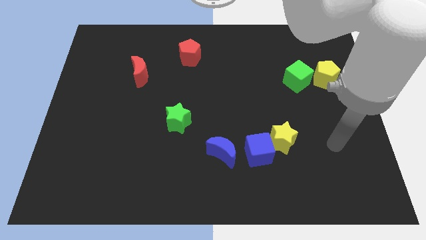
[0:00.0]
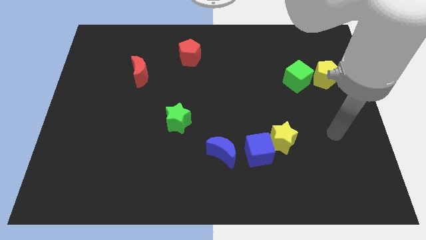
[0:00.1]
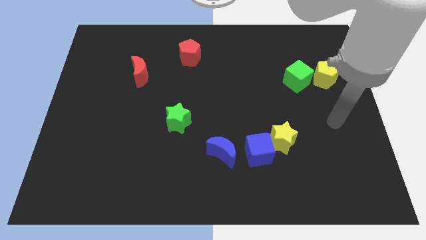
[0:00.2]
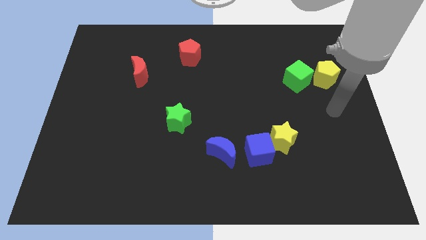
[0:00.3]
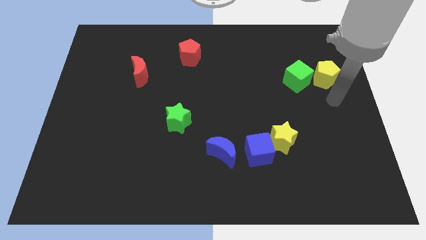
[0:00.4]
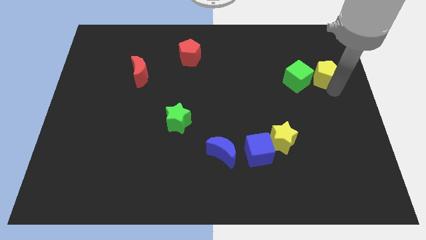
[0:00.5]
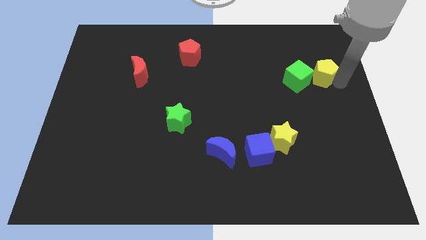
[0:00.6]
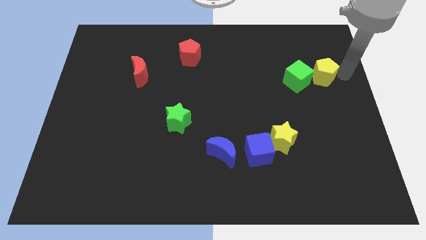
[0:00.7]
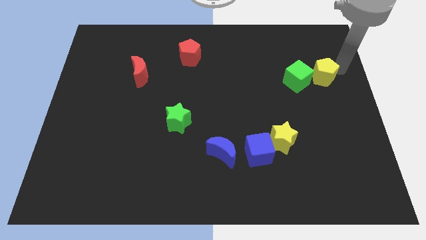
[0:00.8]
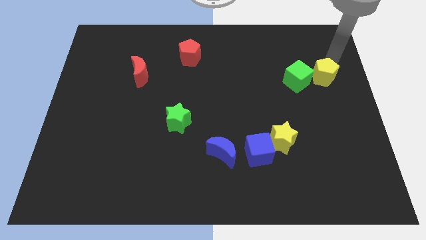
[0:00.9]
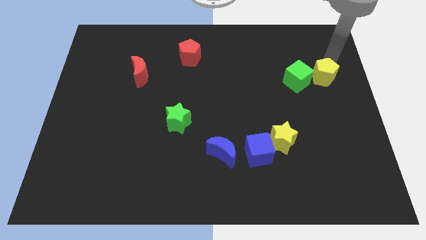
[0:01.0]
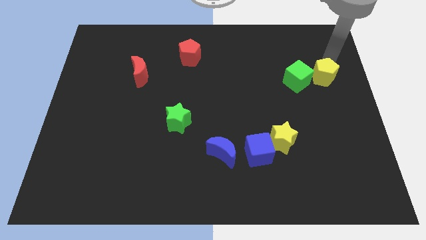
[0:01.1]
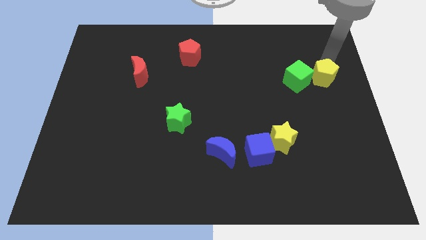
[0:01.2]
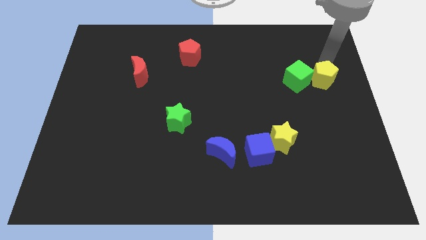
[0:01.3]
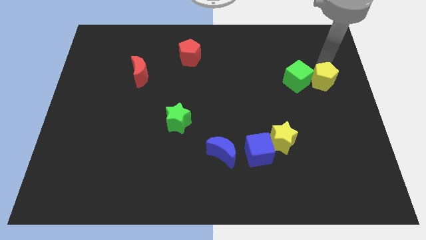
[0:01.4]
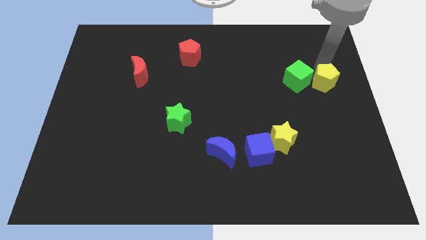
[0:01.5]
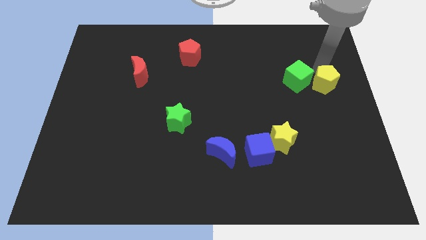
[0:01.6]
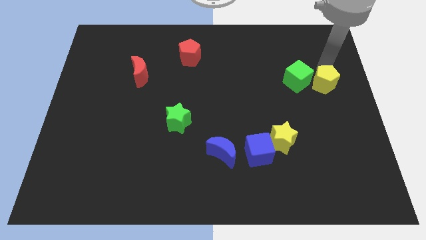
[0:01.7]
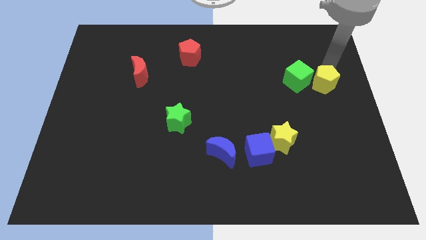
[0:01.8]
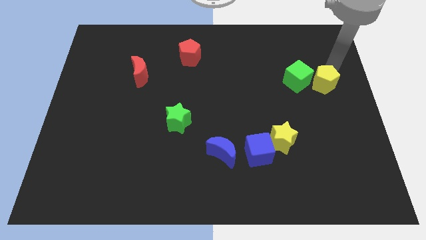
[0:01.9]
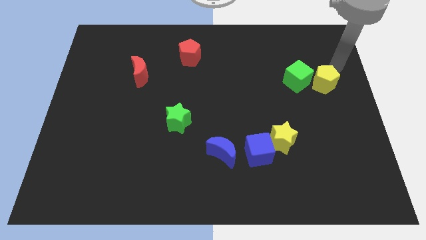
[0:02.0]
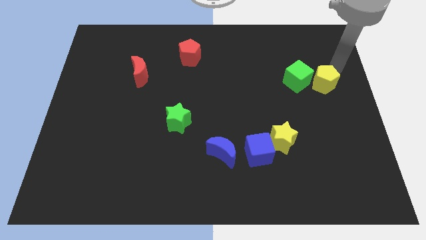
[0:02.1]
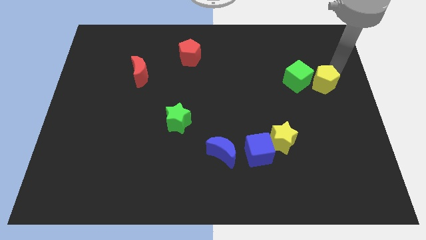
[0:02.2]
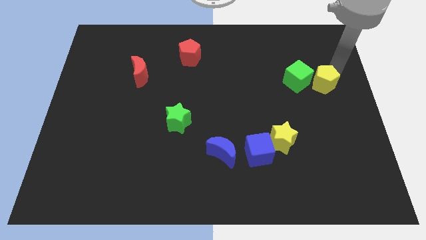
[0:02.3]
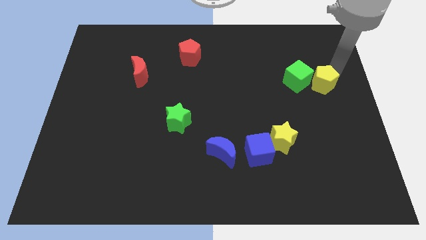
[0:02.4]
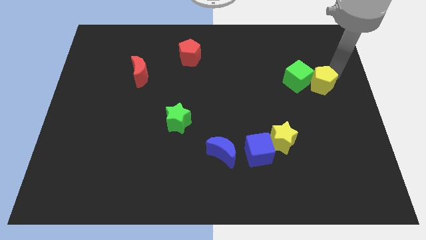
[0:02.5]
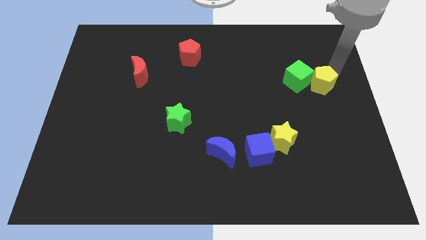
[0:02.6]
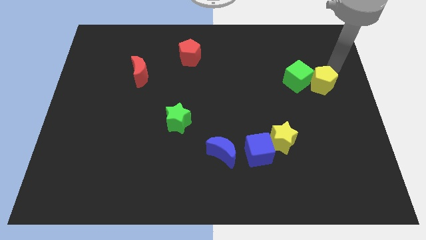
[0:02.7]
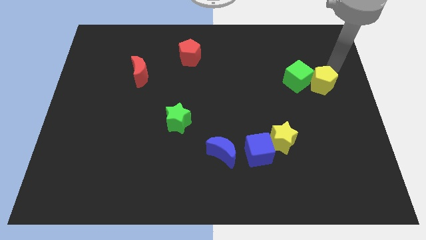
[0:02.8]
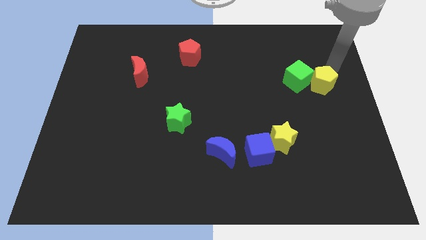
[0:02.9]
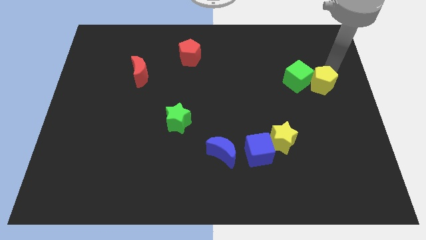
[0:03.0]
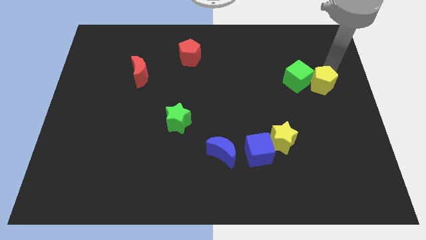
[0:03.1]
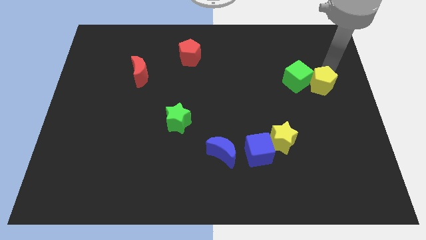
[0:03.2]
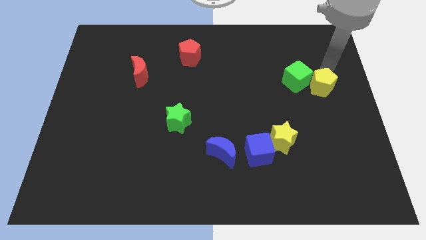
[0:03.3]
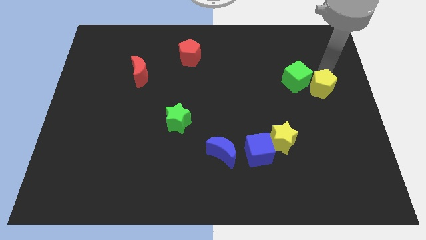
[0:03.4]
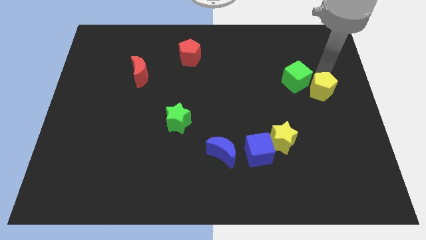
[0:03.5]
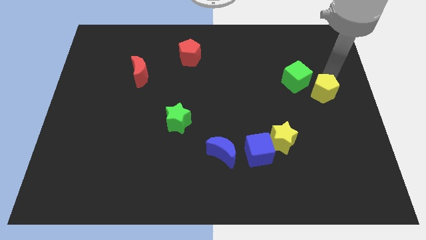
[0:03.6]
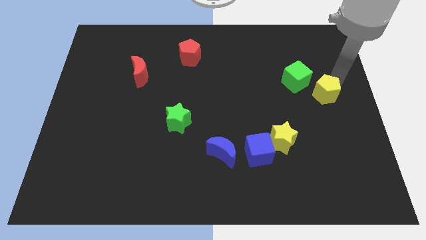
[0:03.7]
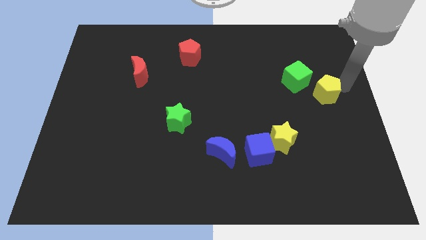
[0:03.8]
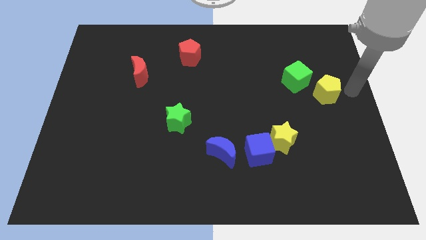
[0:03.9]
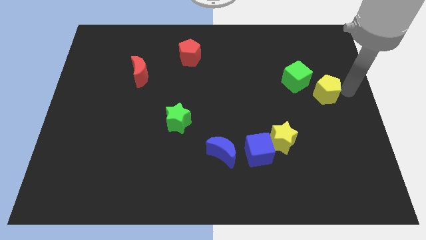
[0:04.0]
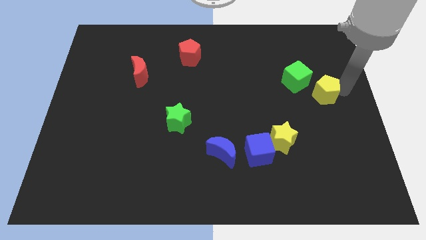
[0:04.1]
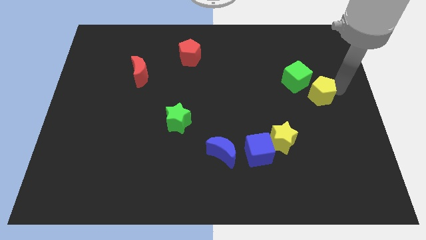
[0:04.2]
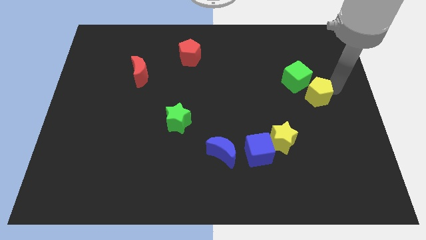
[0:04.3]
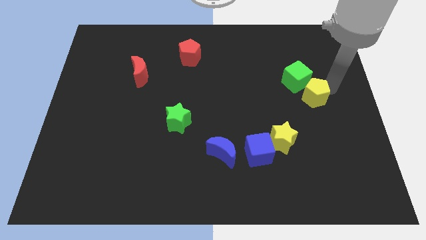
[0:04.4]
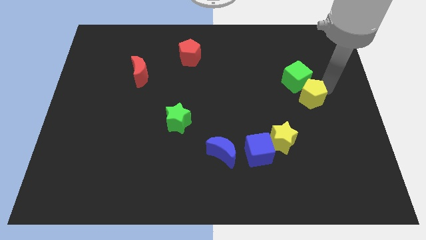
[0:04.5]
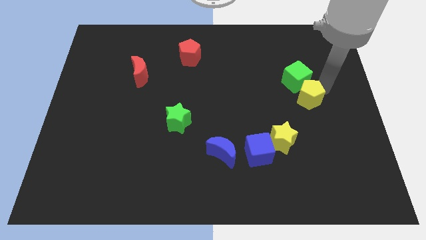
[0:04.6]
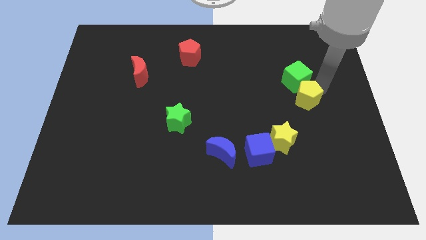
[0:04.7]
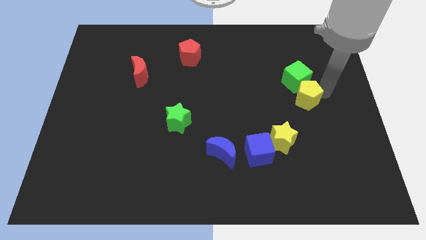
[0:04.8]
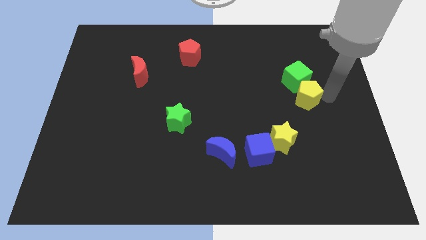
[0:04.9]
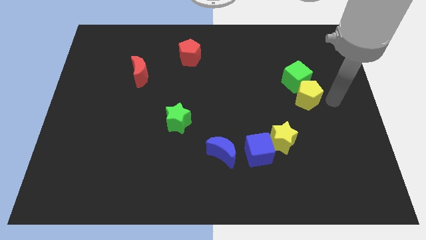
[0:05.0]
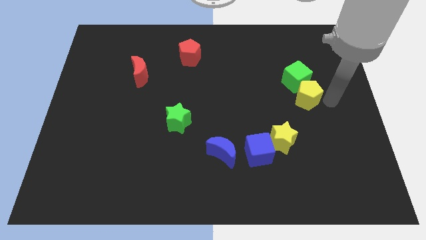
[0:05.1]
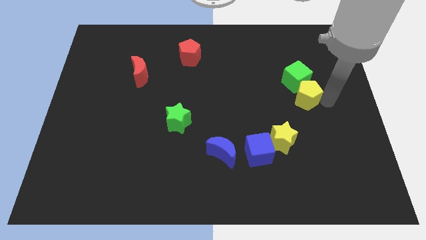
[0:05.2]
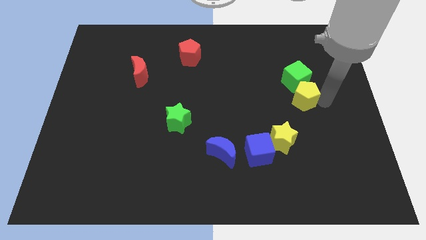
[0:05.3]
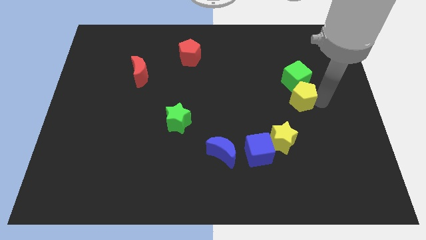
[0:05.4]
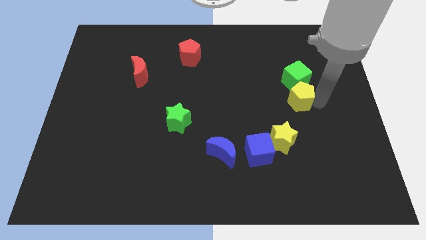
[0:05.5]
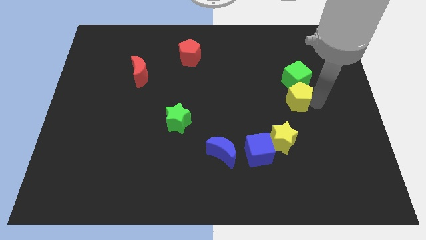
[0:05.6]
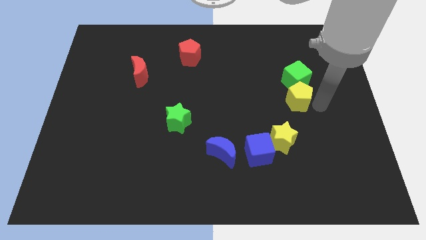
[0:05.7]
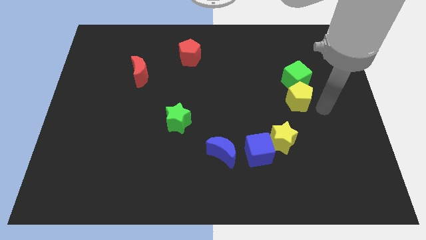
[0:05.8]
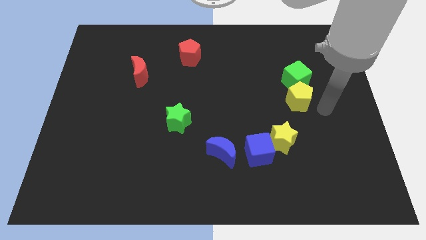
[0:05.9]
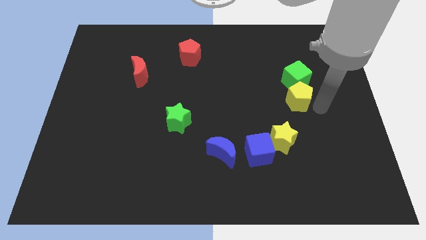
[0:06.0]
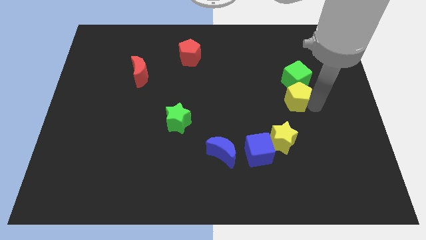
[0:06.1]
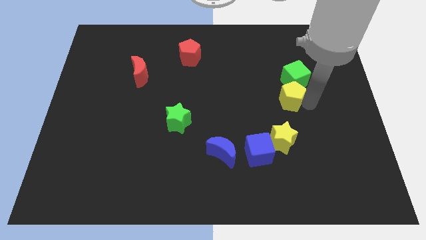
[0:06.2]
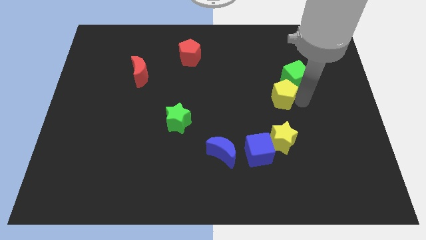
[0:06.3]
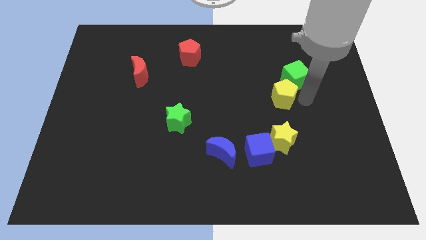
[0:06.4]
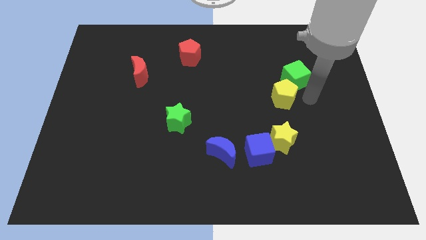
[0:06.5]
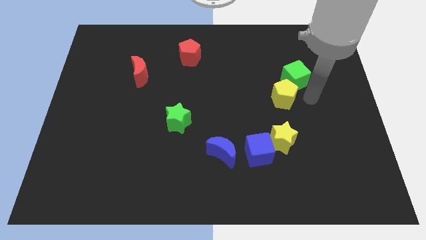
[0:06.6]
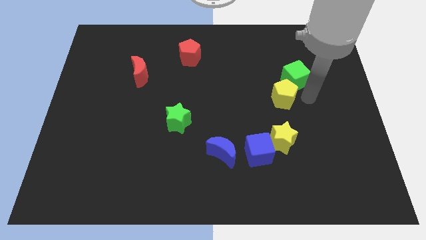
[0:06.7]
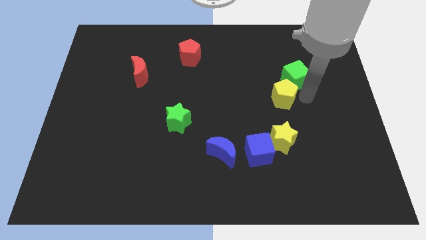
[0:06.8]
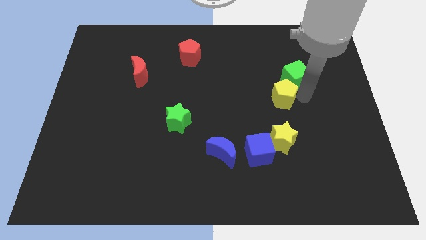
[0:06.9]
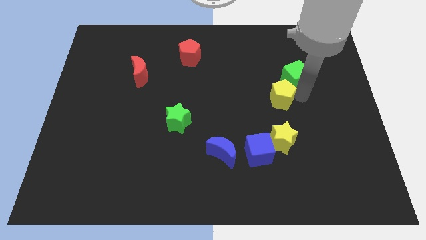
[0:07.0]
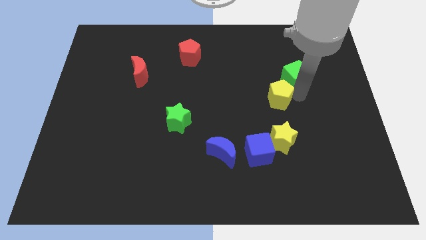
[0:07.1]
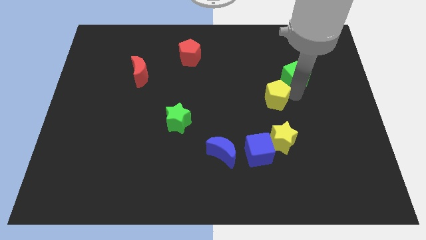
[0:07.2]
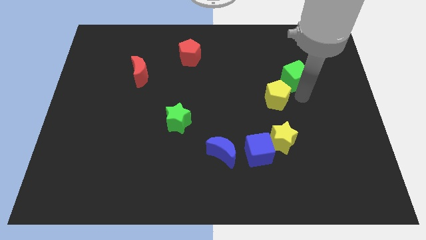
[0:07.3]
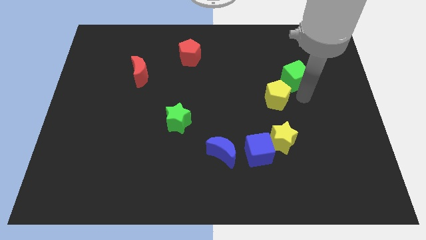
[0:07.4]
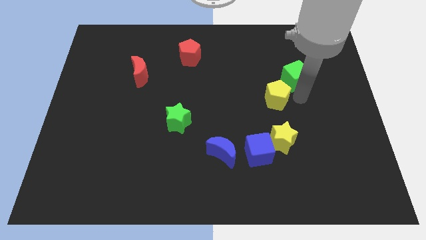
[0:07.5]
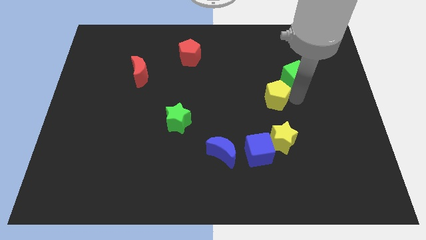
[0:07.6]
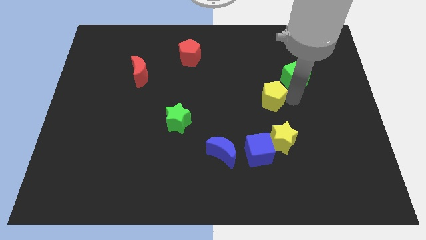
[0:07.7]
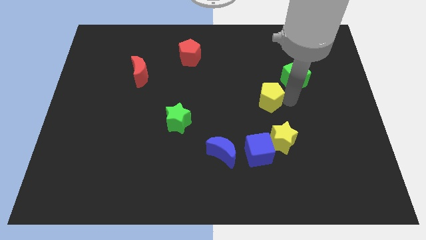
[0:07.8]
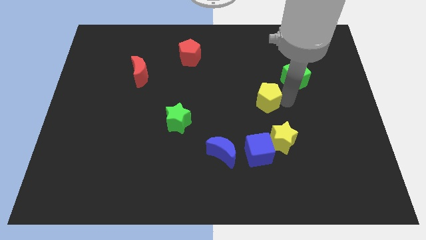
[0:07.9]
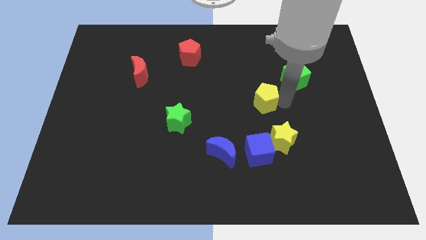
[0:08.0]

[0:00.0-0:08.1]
push the yellow pentagon to the center
